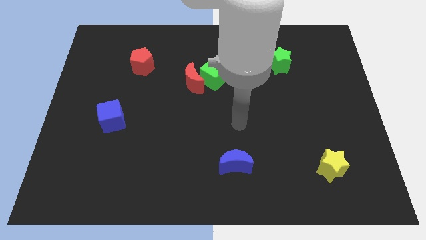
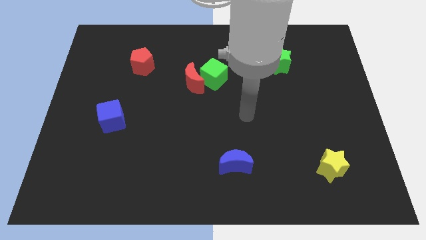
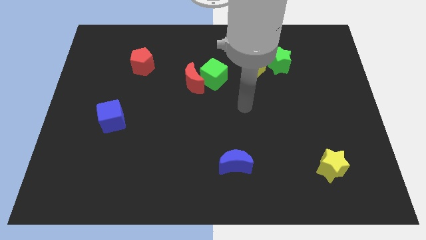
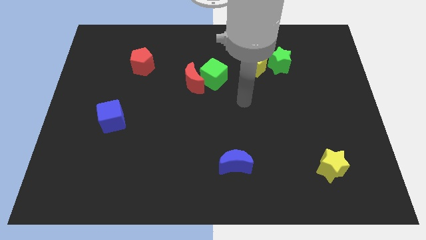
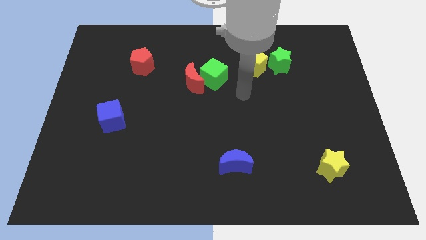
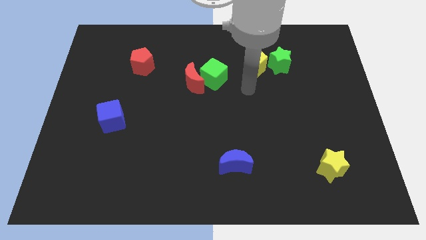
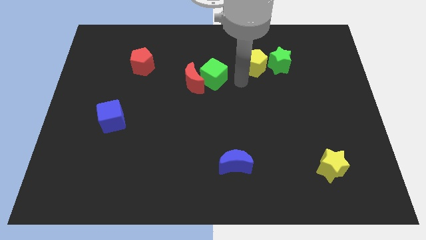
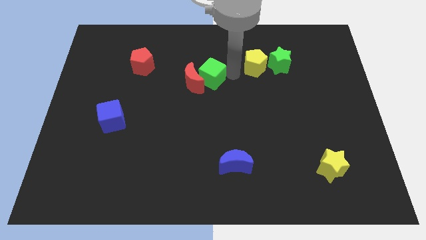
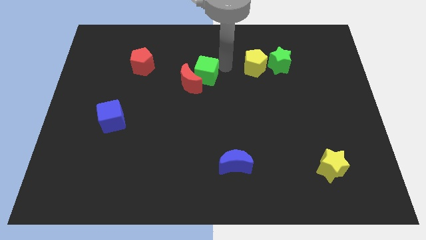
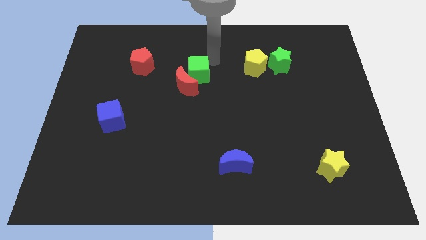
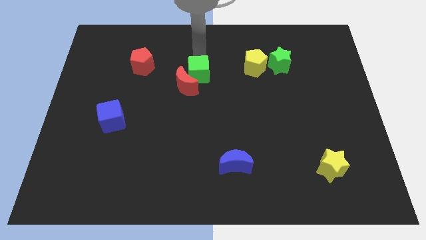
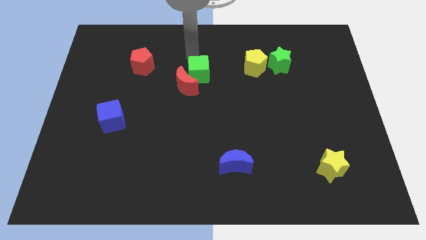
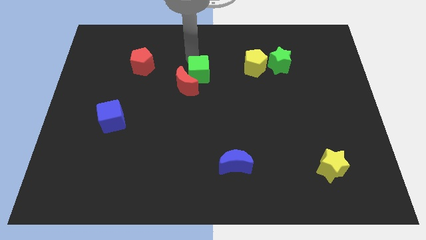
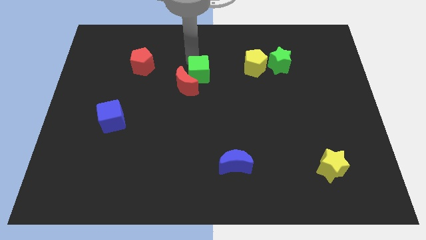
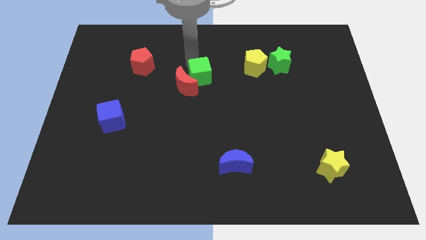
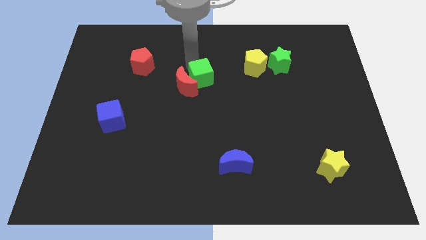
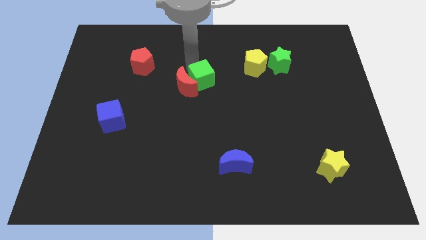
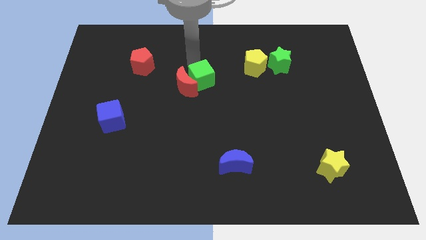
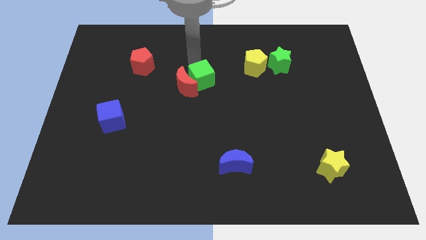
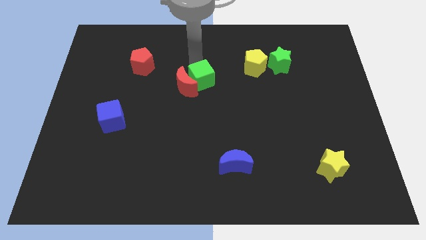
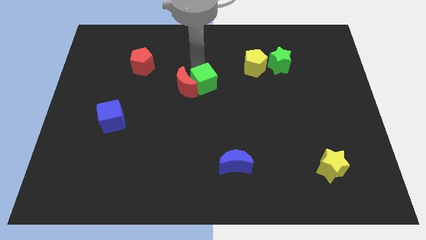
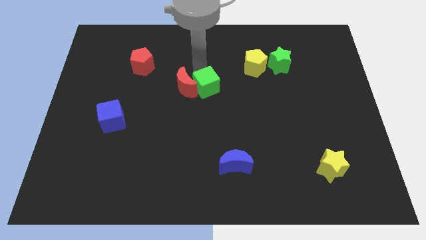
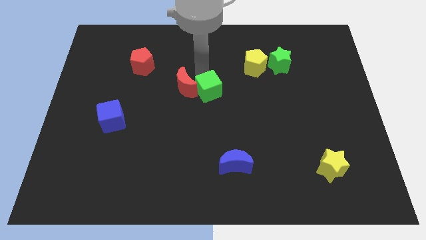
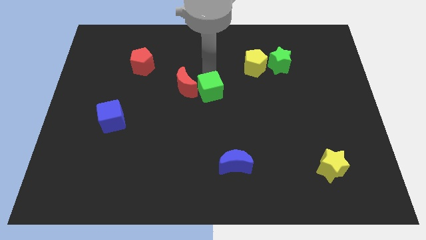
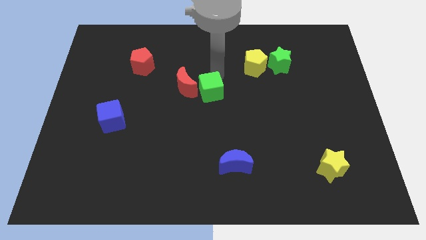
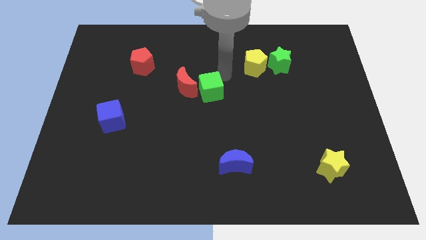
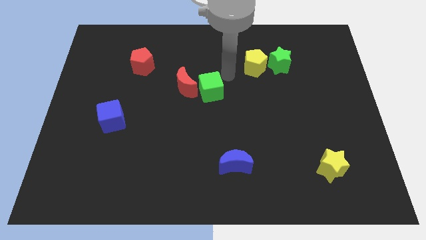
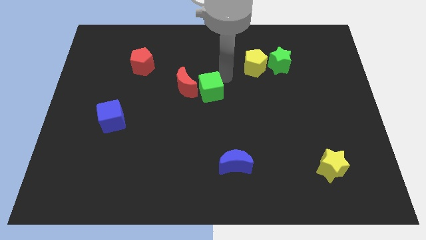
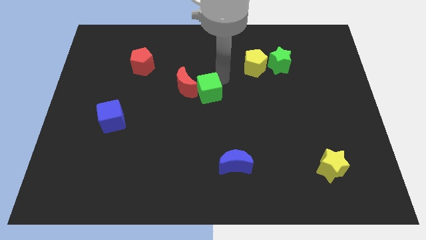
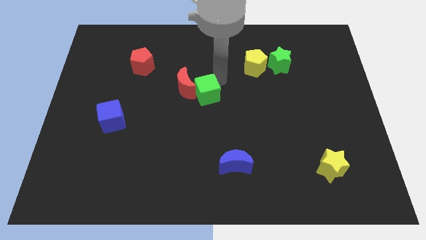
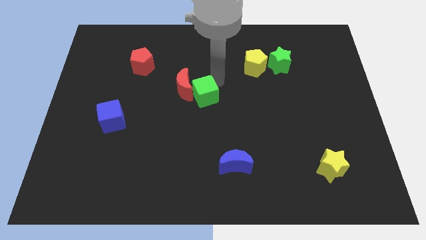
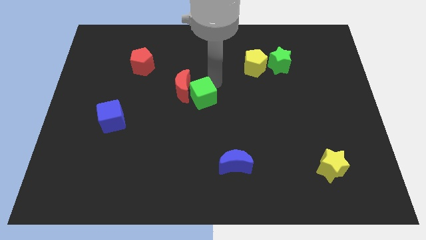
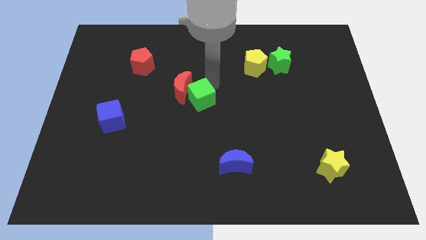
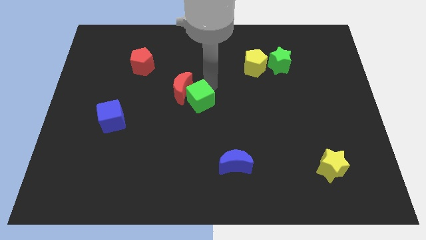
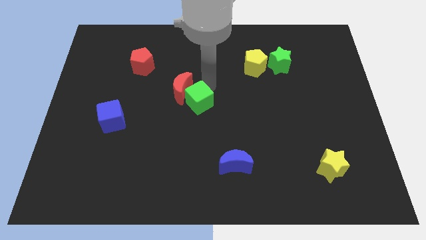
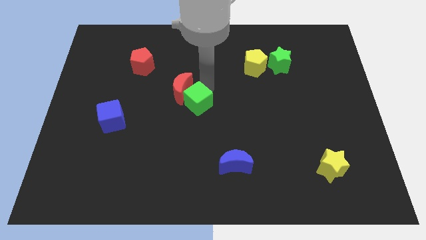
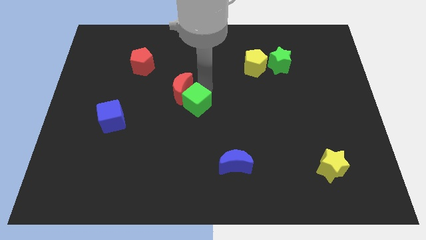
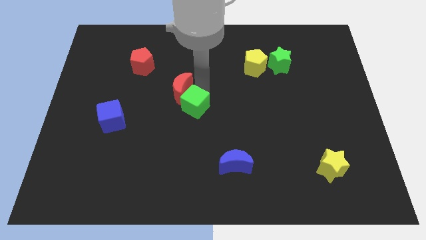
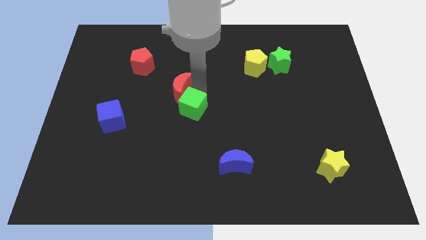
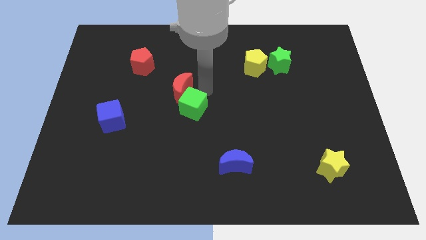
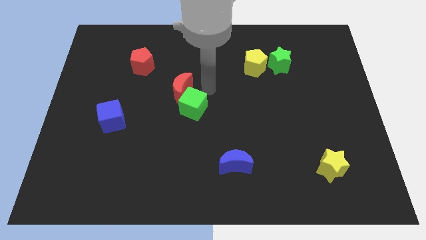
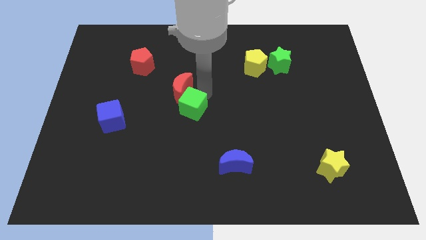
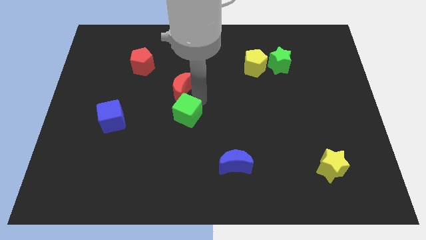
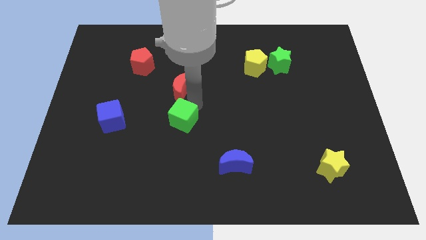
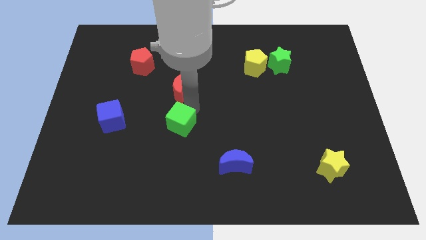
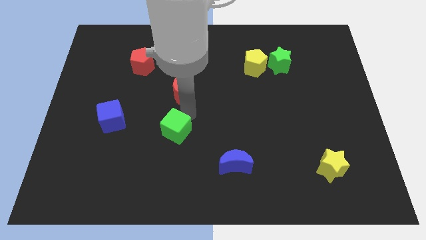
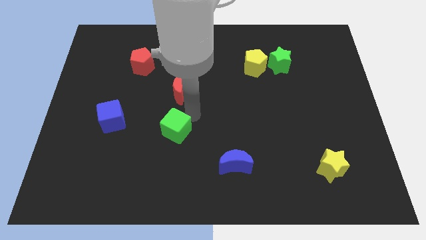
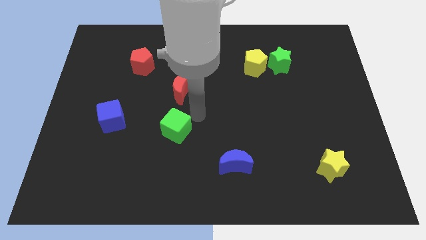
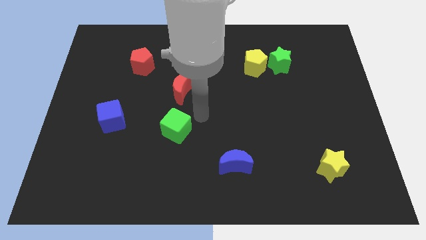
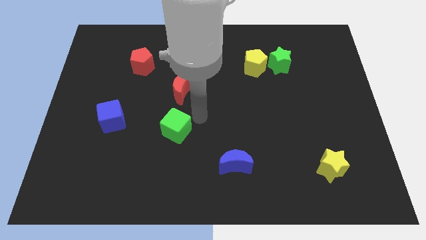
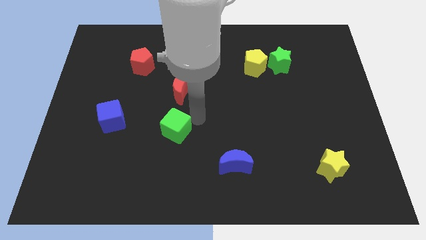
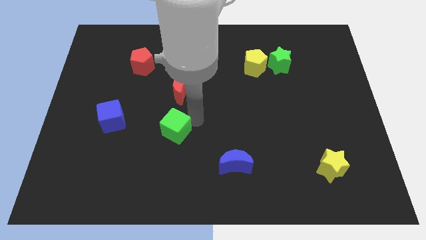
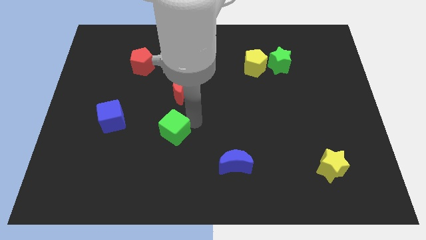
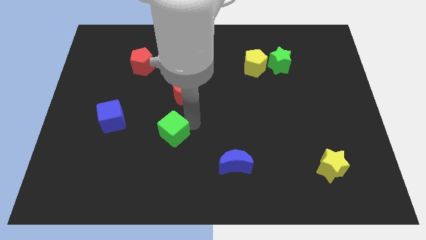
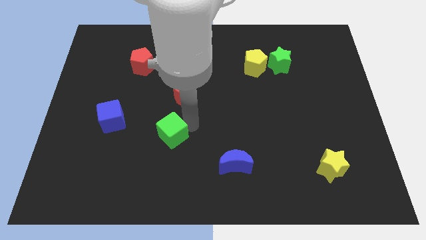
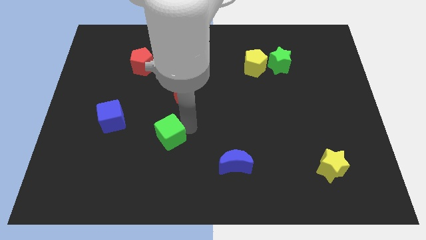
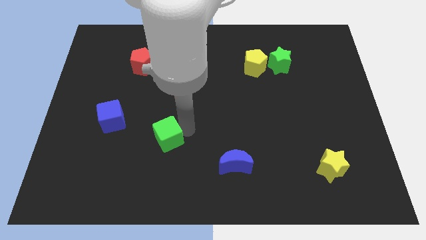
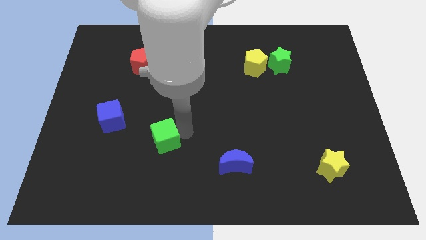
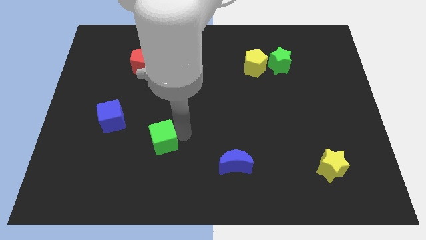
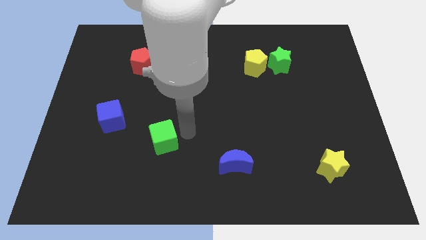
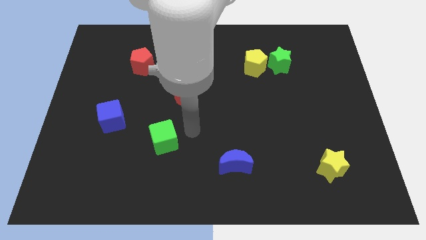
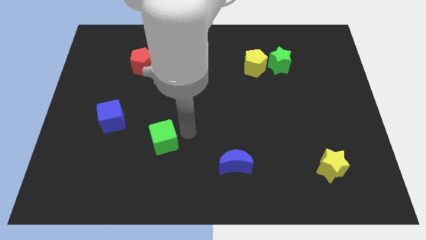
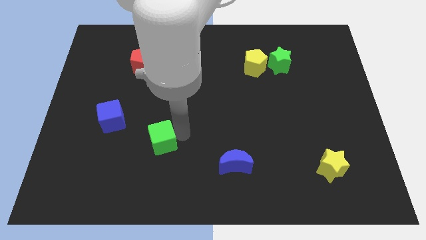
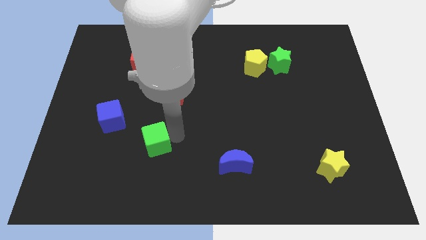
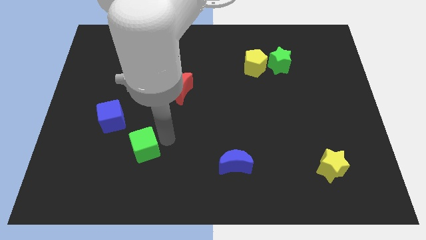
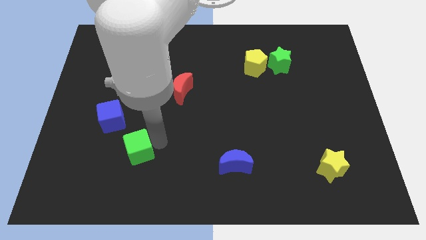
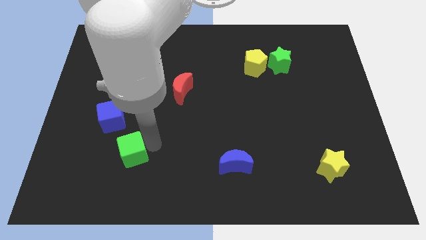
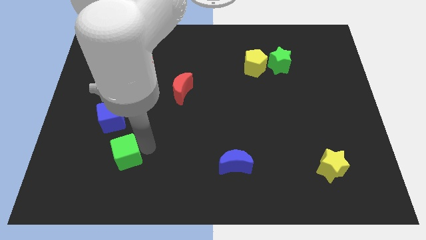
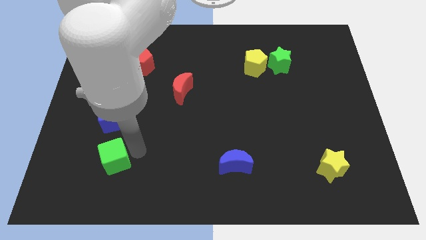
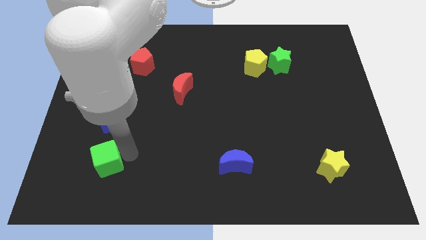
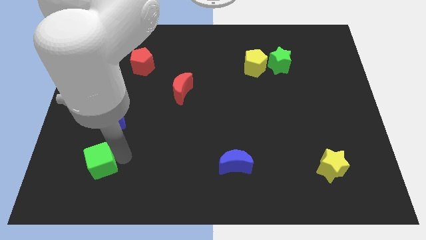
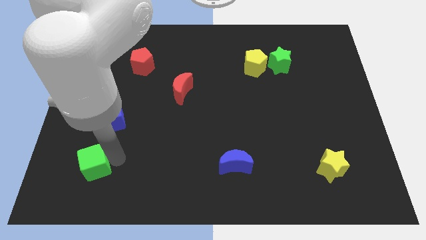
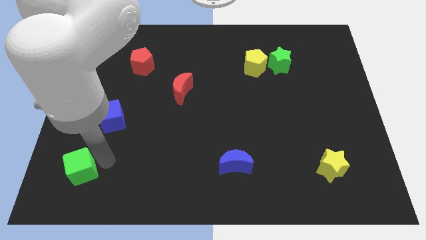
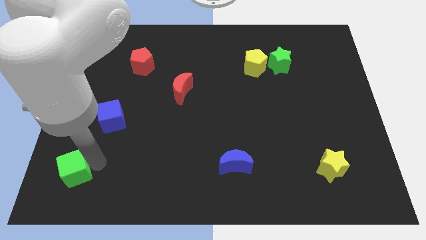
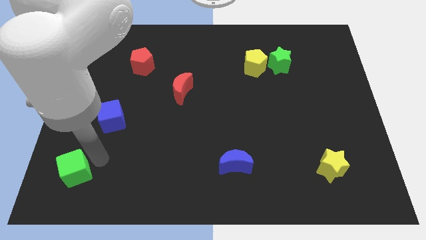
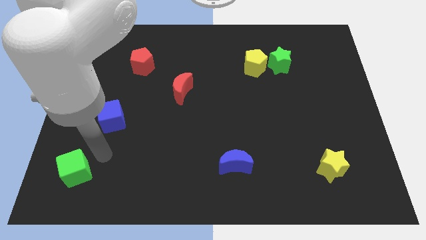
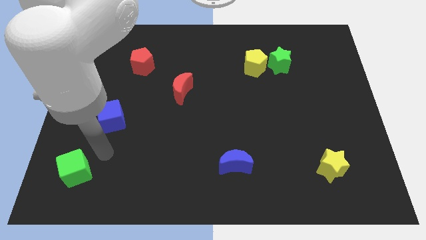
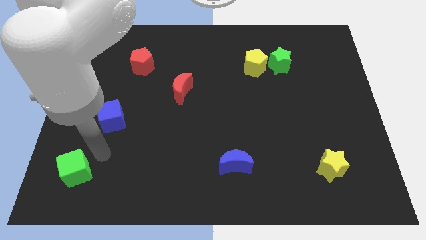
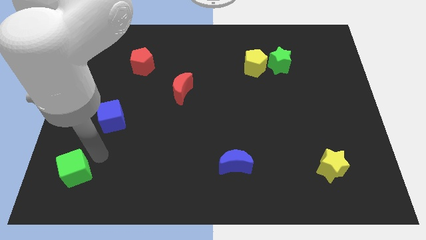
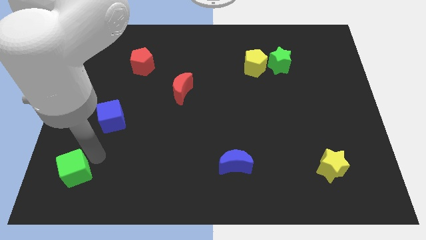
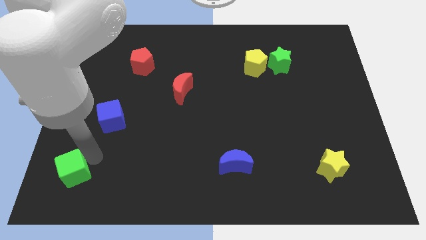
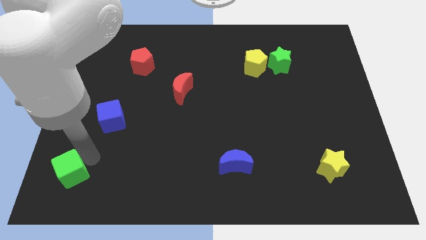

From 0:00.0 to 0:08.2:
put the green cube to the bottom left
